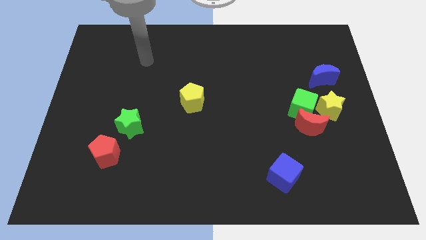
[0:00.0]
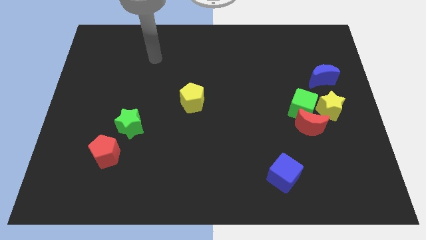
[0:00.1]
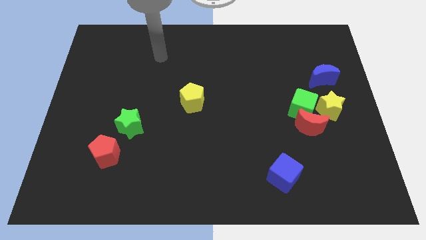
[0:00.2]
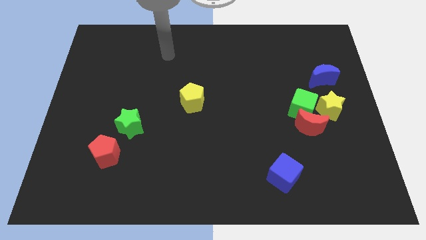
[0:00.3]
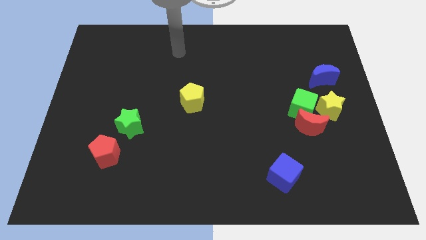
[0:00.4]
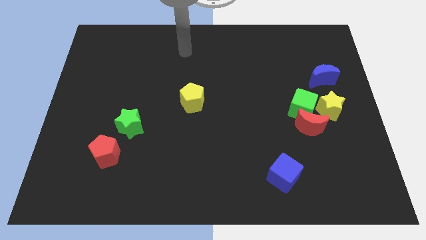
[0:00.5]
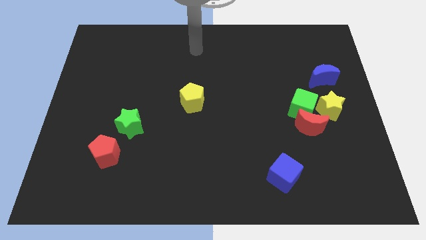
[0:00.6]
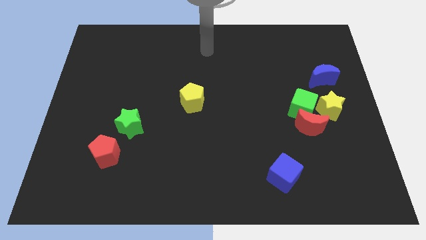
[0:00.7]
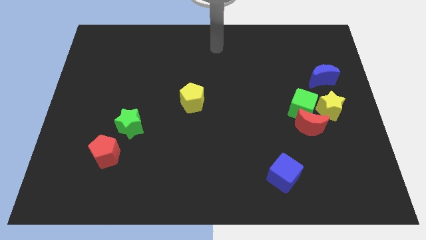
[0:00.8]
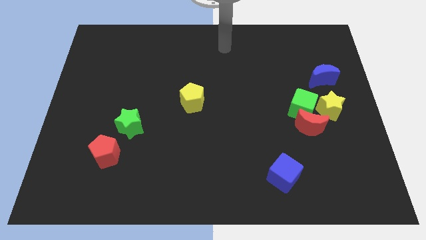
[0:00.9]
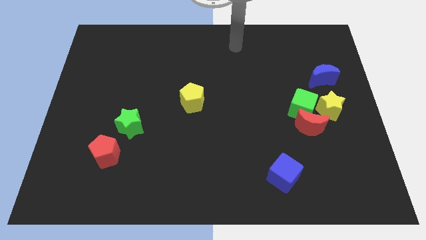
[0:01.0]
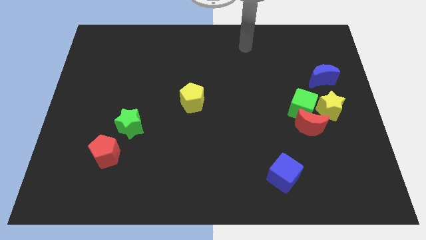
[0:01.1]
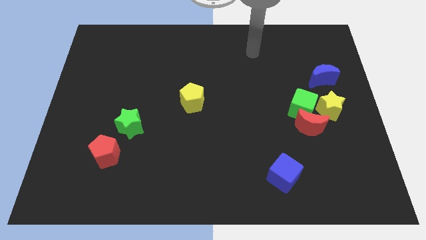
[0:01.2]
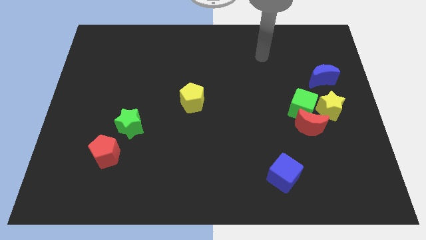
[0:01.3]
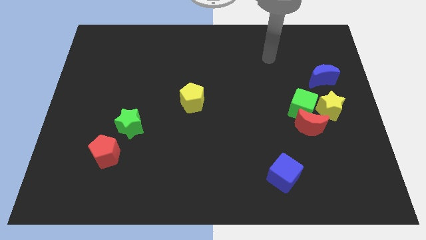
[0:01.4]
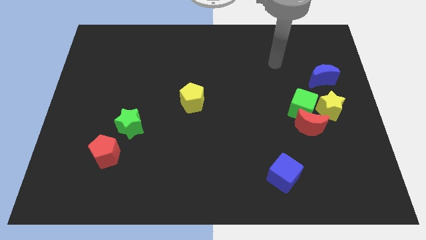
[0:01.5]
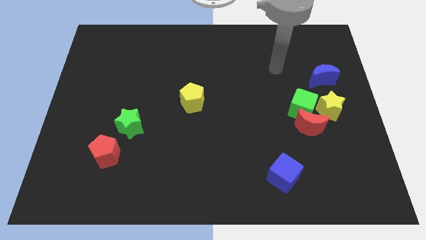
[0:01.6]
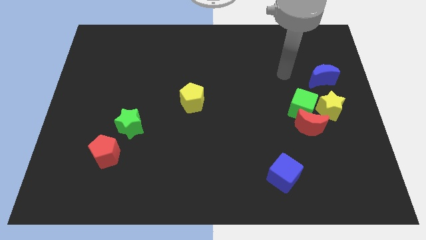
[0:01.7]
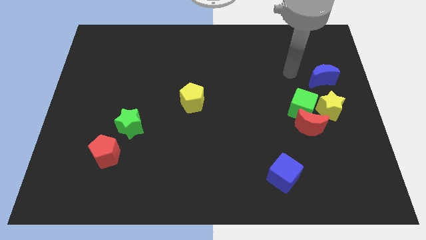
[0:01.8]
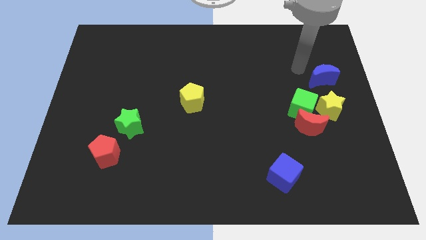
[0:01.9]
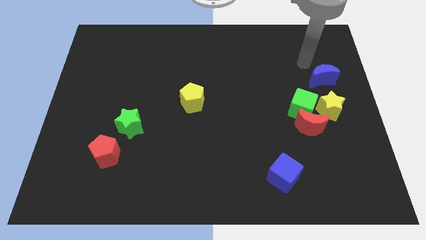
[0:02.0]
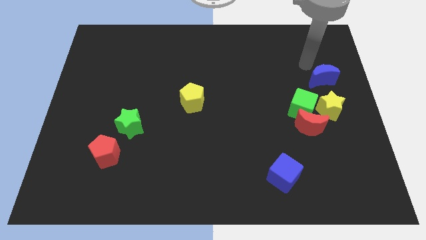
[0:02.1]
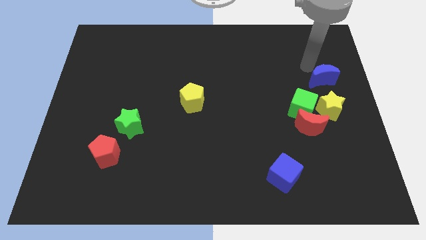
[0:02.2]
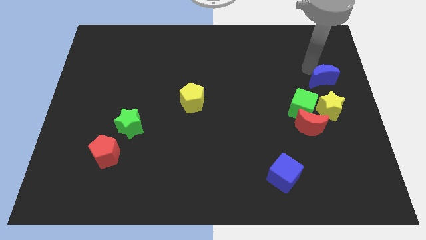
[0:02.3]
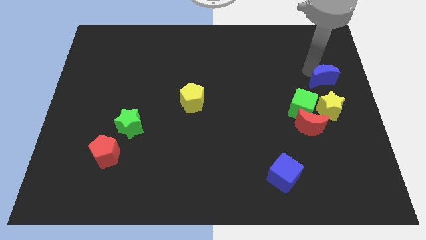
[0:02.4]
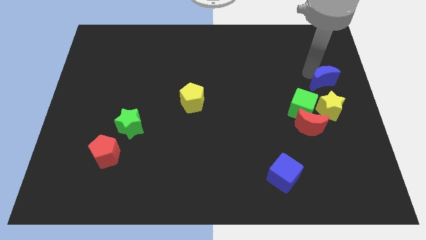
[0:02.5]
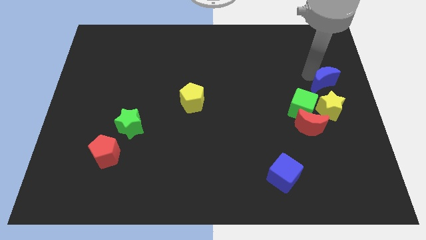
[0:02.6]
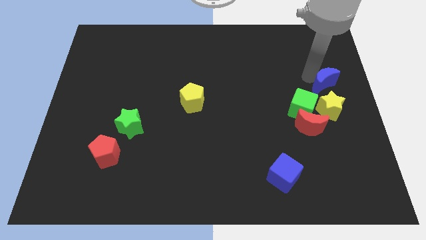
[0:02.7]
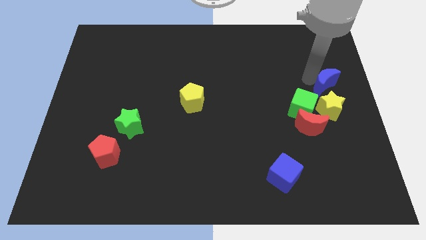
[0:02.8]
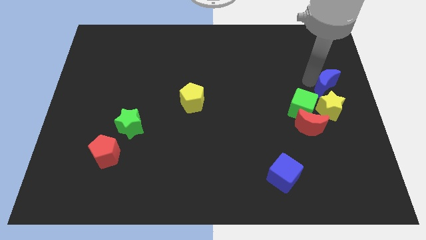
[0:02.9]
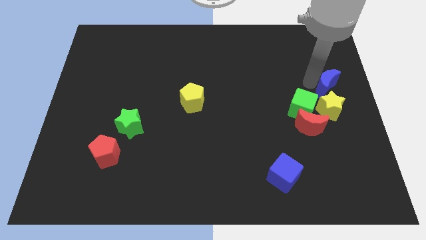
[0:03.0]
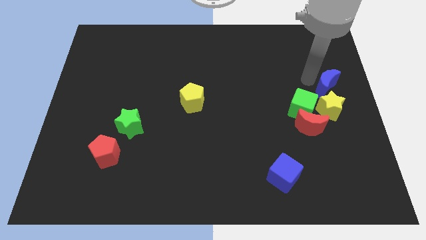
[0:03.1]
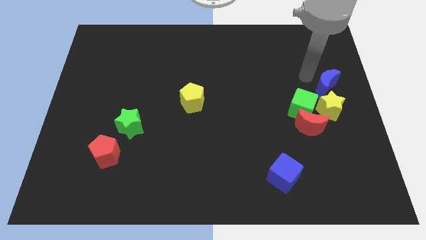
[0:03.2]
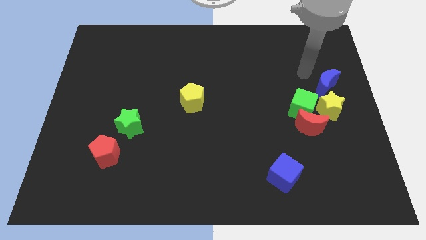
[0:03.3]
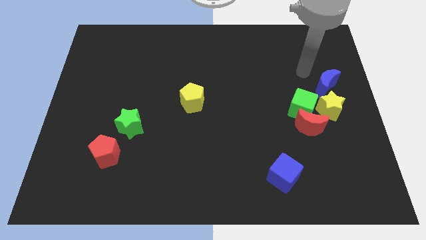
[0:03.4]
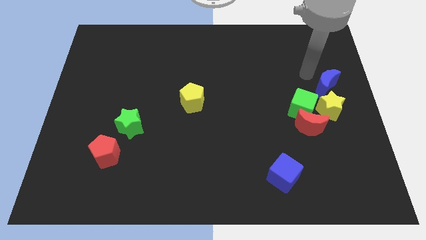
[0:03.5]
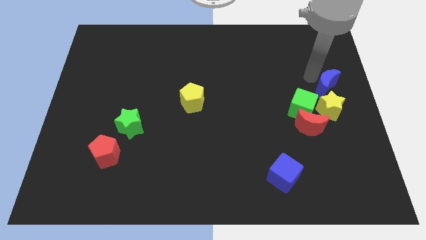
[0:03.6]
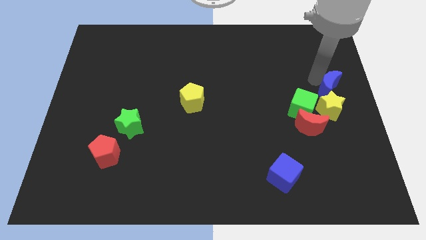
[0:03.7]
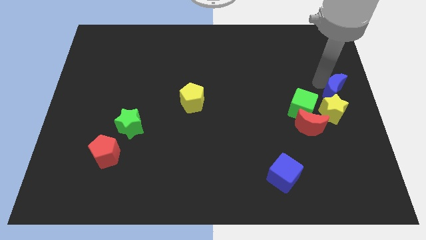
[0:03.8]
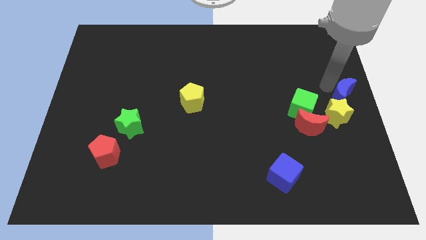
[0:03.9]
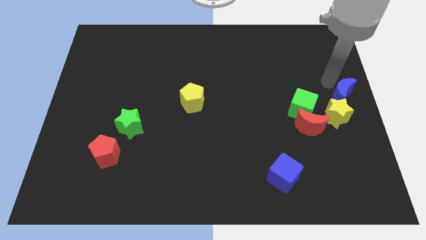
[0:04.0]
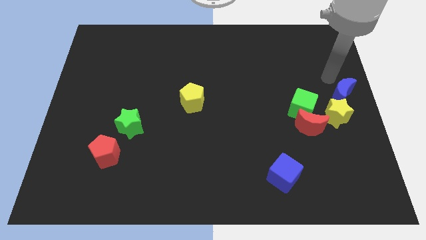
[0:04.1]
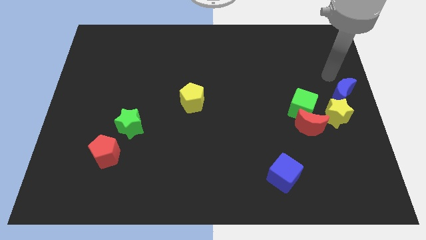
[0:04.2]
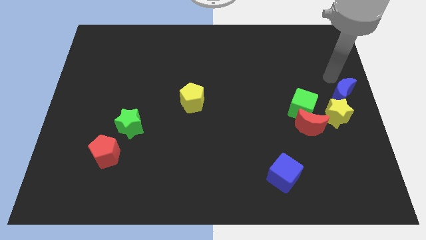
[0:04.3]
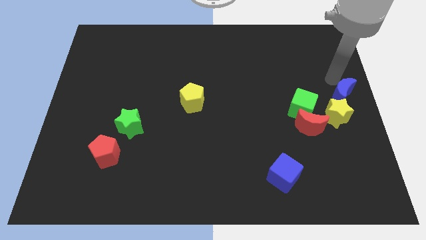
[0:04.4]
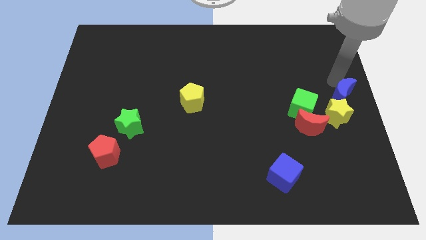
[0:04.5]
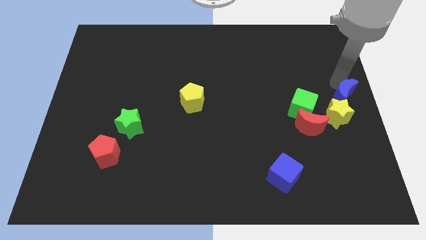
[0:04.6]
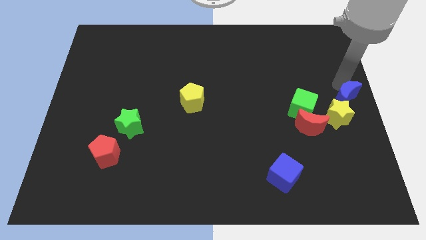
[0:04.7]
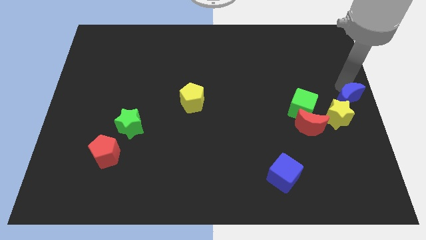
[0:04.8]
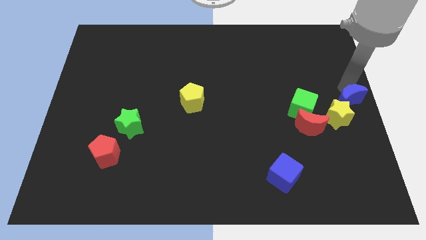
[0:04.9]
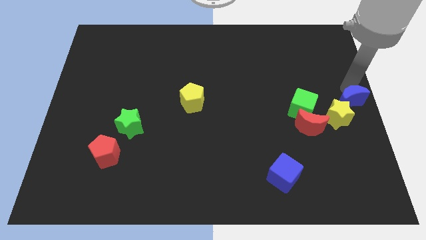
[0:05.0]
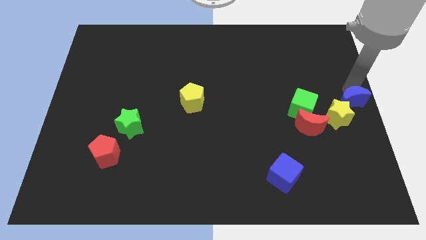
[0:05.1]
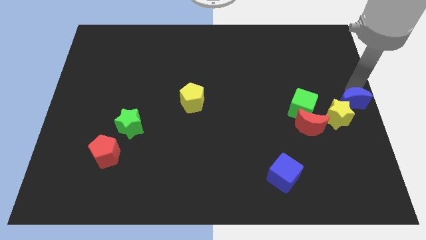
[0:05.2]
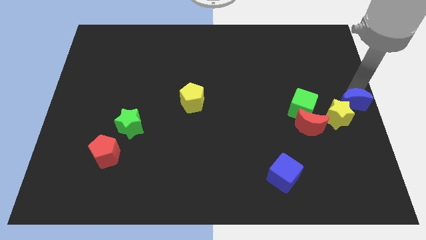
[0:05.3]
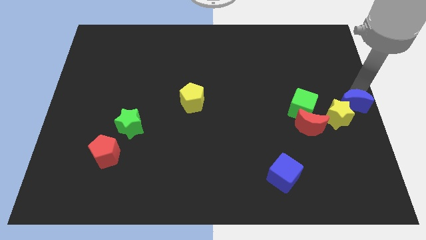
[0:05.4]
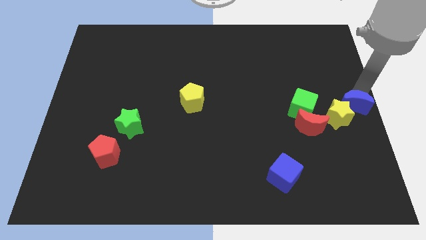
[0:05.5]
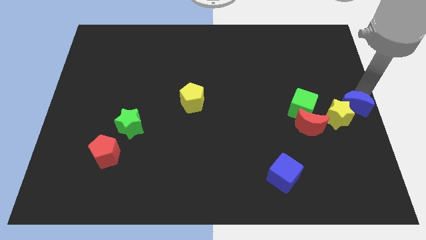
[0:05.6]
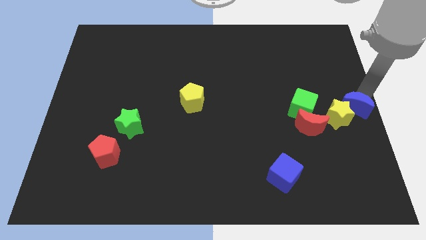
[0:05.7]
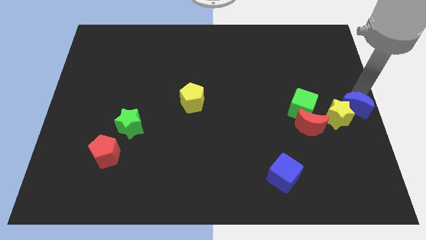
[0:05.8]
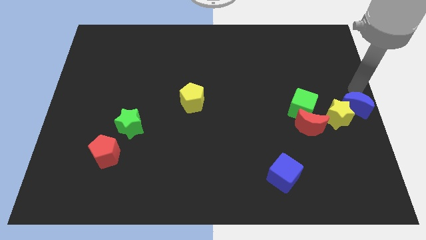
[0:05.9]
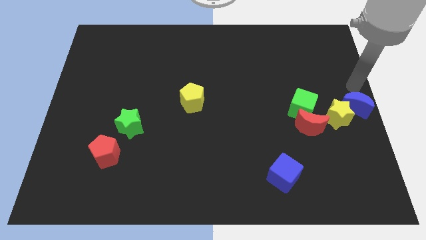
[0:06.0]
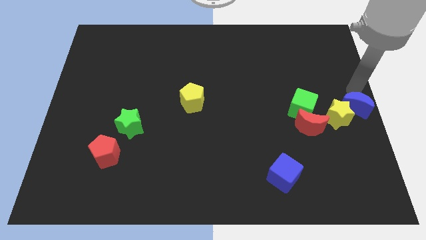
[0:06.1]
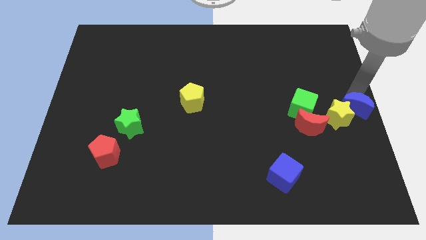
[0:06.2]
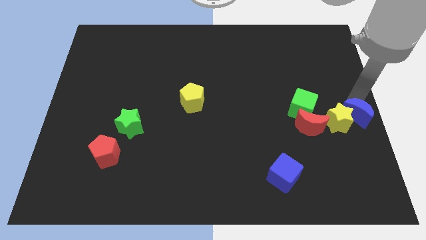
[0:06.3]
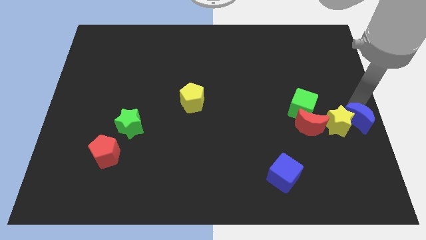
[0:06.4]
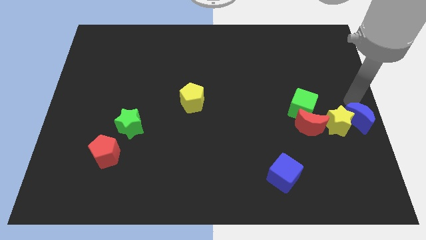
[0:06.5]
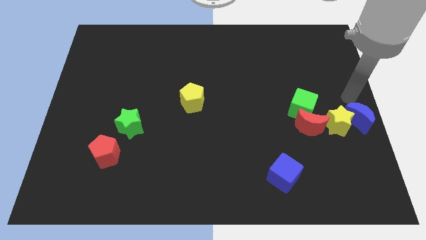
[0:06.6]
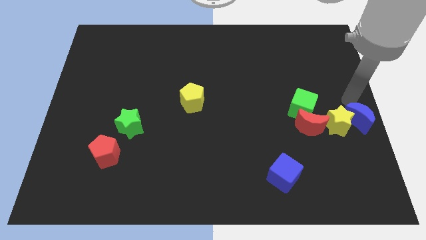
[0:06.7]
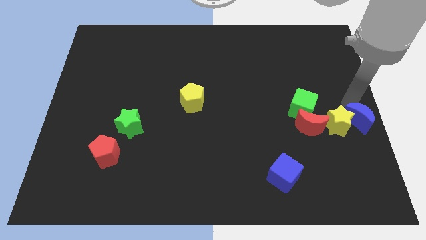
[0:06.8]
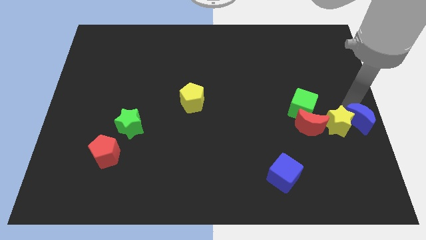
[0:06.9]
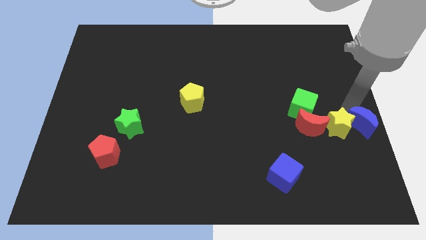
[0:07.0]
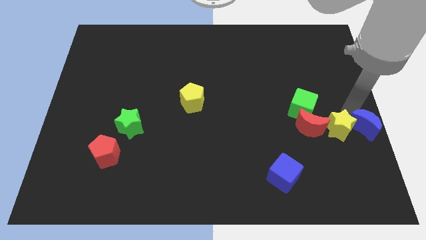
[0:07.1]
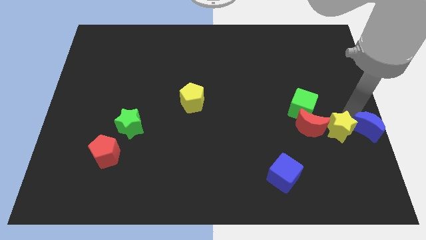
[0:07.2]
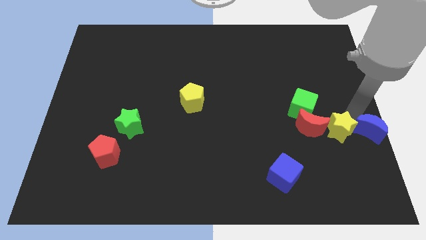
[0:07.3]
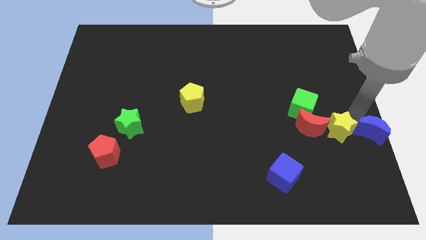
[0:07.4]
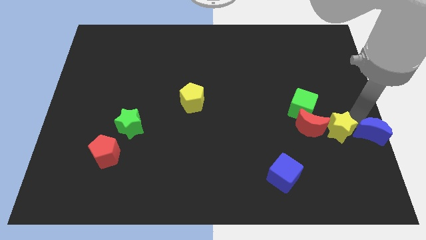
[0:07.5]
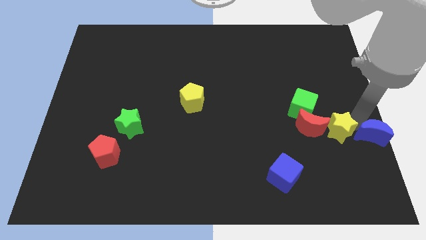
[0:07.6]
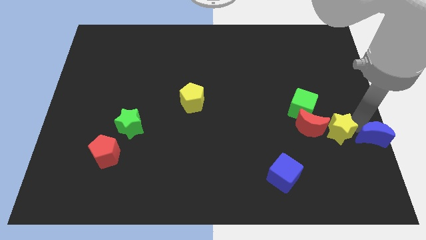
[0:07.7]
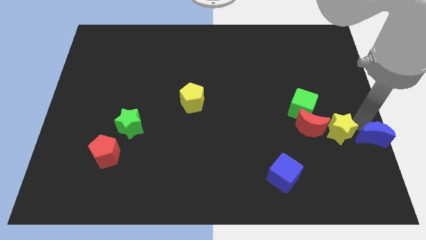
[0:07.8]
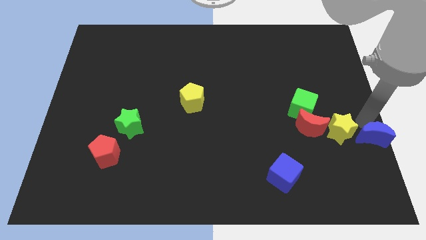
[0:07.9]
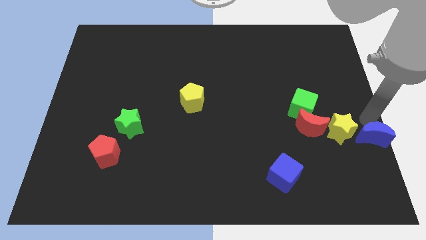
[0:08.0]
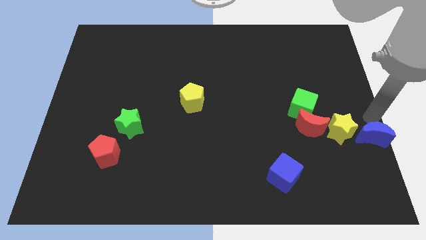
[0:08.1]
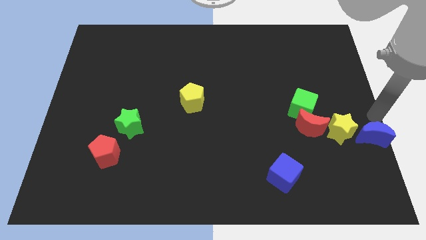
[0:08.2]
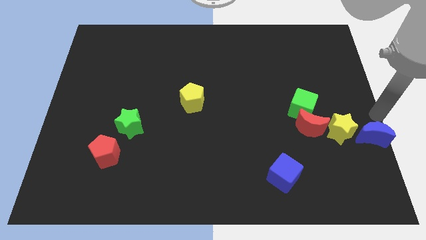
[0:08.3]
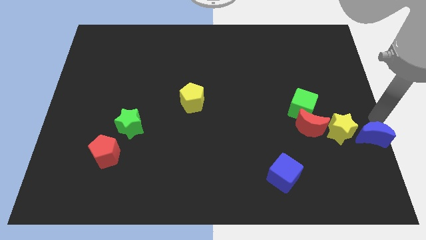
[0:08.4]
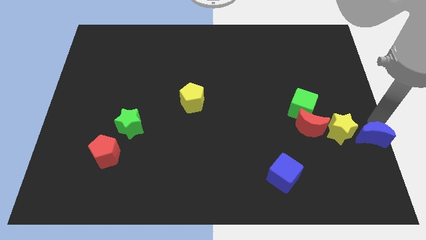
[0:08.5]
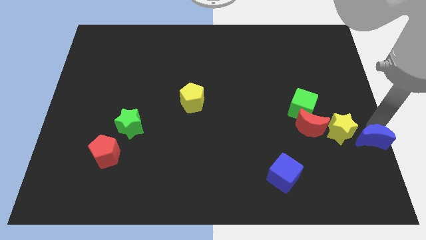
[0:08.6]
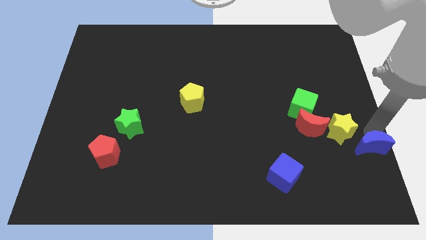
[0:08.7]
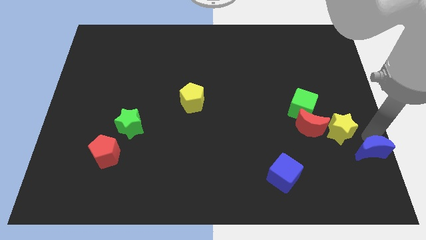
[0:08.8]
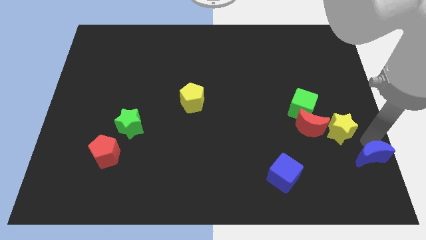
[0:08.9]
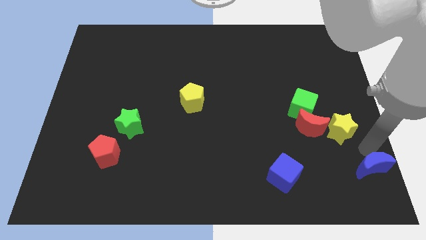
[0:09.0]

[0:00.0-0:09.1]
move the blue moon to the bottom right
